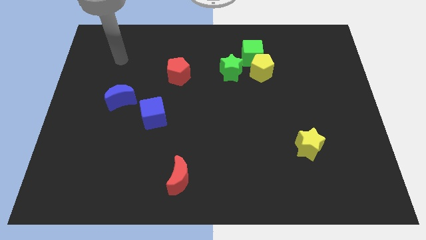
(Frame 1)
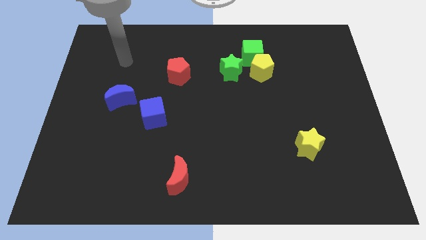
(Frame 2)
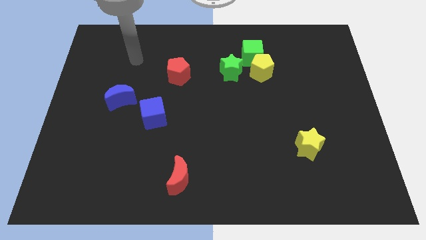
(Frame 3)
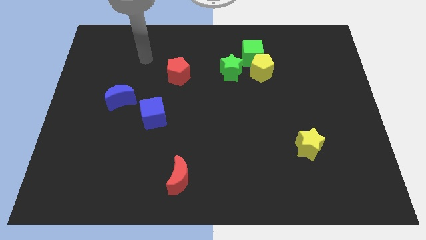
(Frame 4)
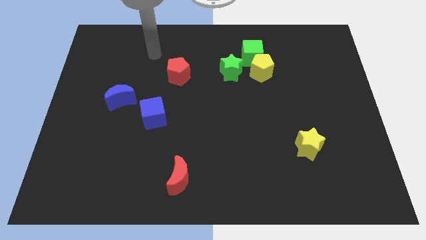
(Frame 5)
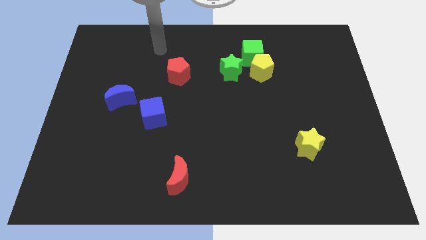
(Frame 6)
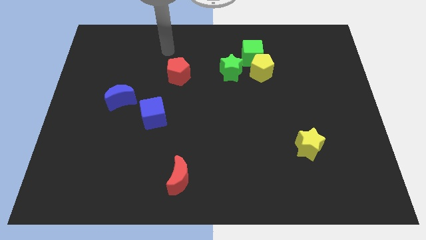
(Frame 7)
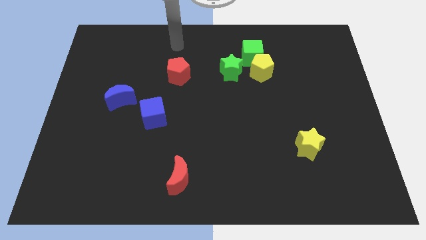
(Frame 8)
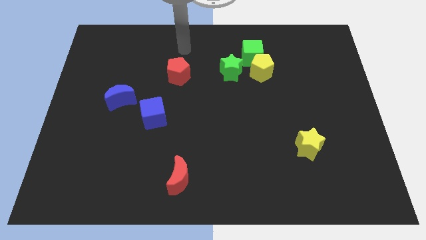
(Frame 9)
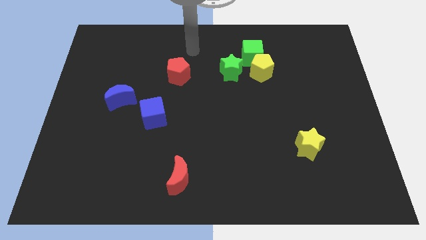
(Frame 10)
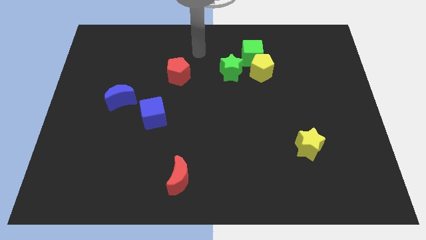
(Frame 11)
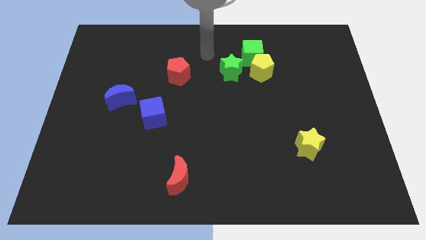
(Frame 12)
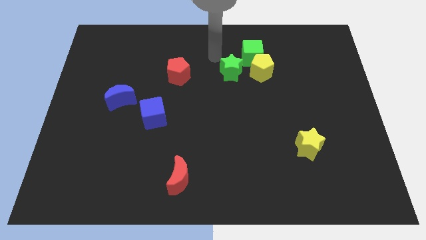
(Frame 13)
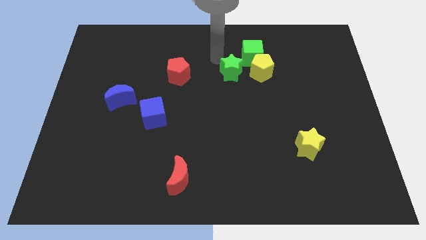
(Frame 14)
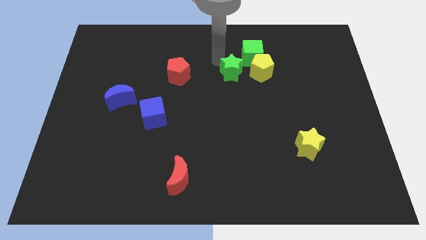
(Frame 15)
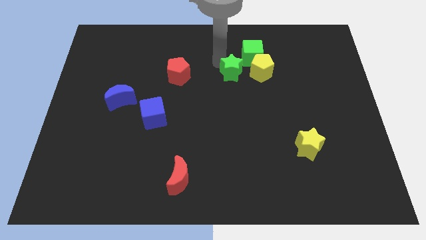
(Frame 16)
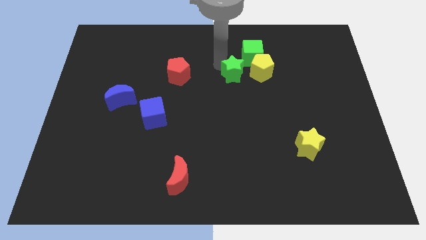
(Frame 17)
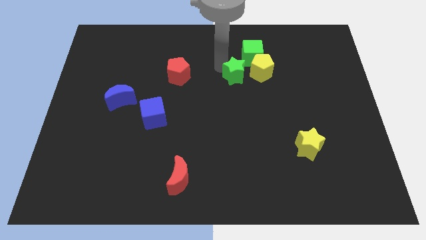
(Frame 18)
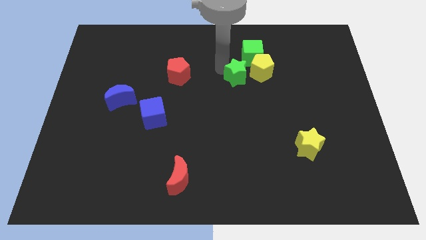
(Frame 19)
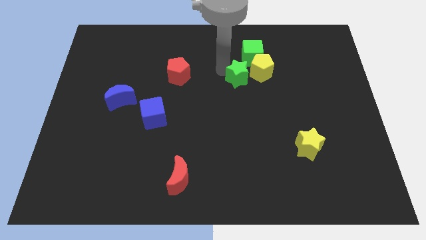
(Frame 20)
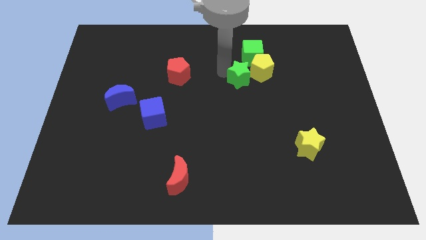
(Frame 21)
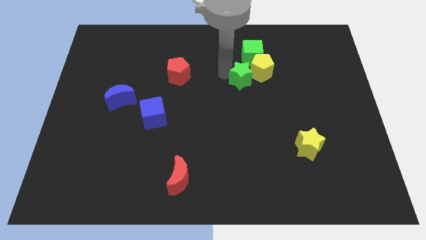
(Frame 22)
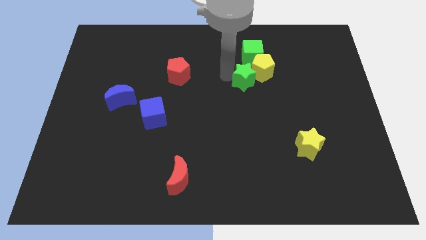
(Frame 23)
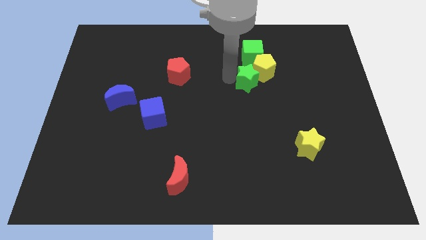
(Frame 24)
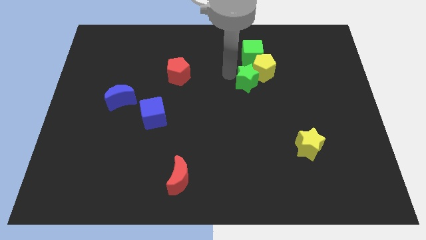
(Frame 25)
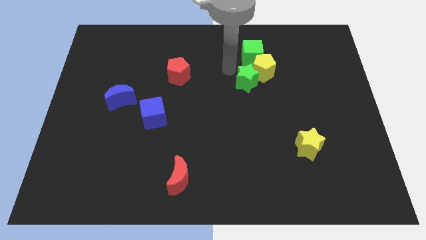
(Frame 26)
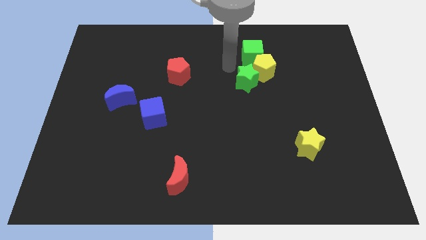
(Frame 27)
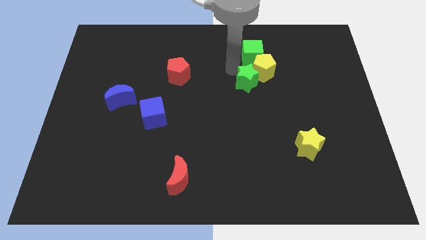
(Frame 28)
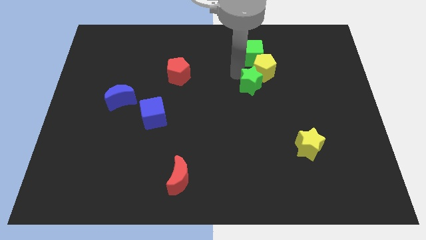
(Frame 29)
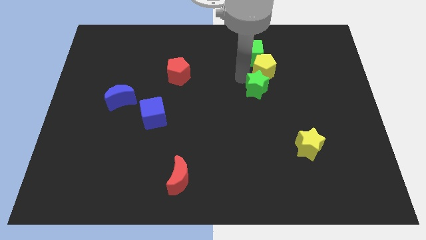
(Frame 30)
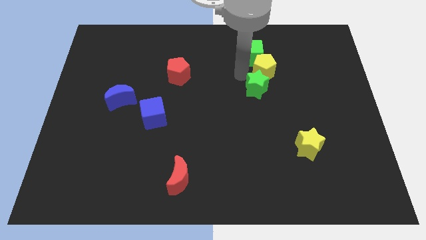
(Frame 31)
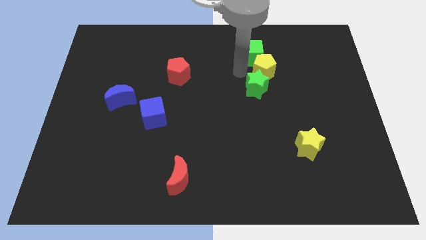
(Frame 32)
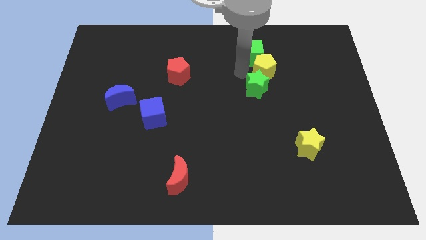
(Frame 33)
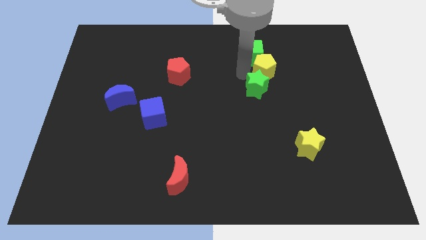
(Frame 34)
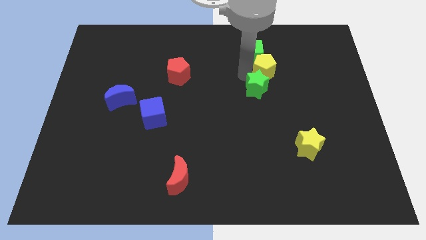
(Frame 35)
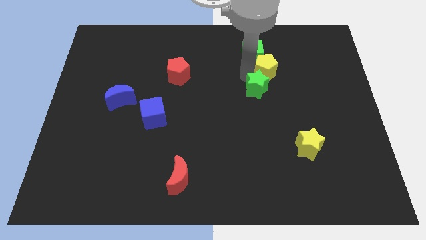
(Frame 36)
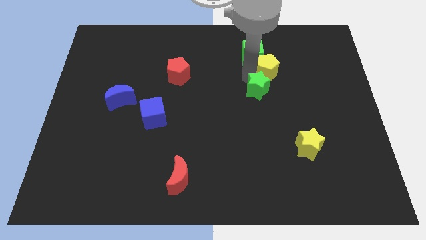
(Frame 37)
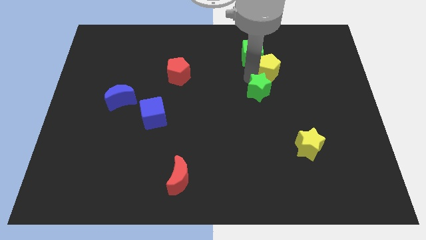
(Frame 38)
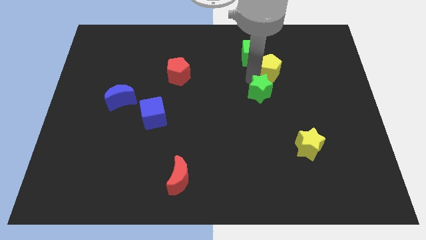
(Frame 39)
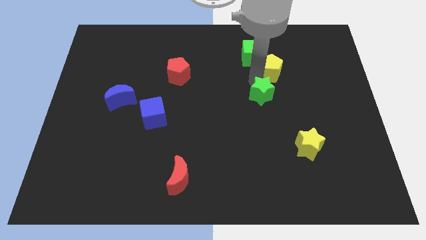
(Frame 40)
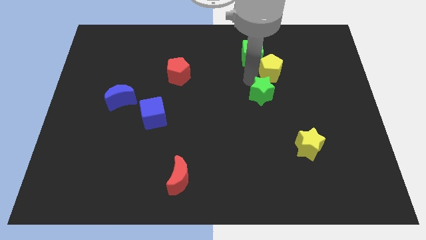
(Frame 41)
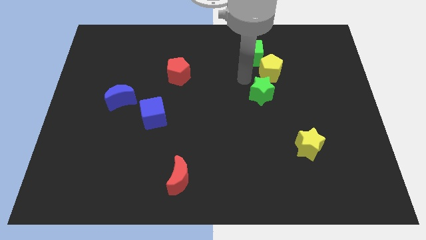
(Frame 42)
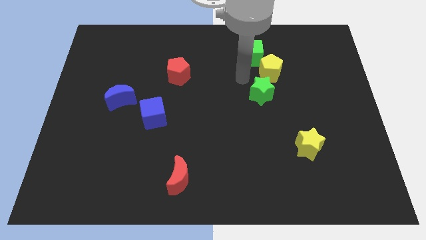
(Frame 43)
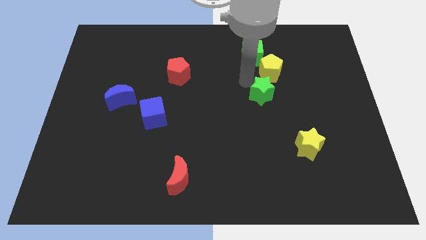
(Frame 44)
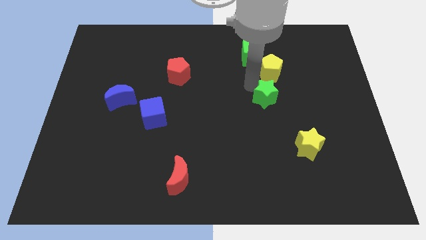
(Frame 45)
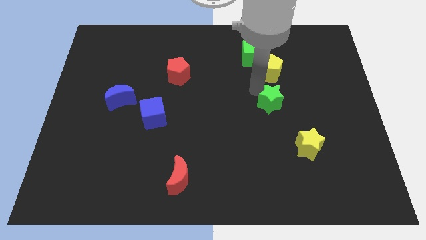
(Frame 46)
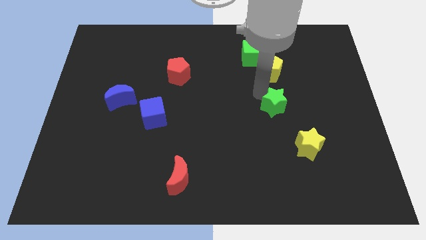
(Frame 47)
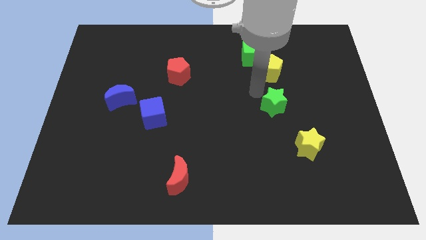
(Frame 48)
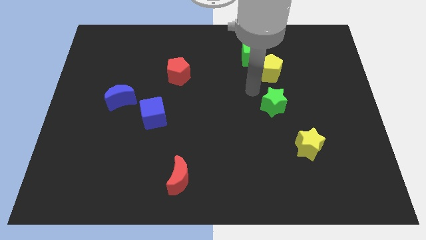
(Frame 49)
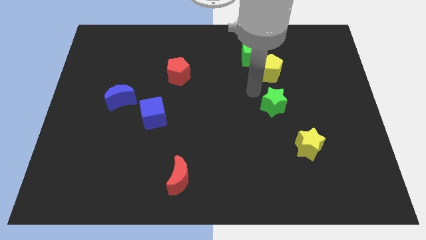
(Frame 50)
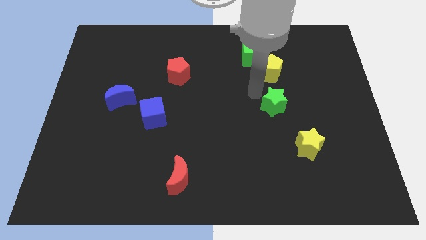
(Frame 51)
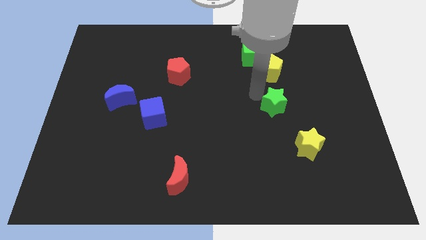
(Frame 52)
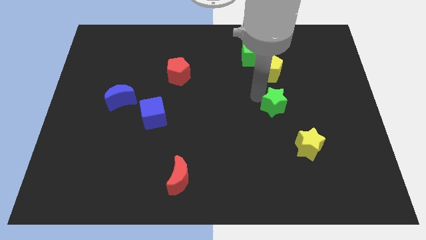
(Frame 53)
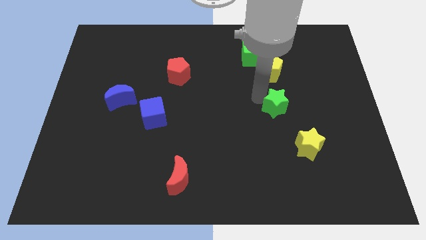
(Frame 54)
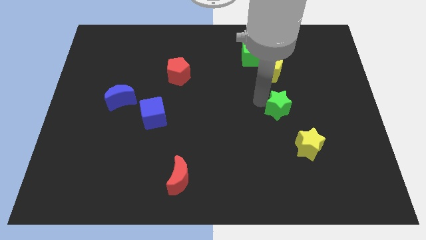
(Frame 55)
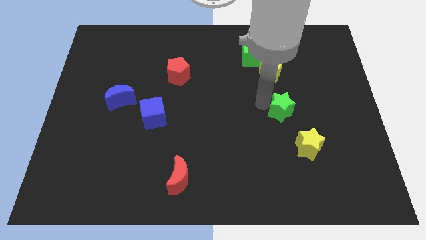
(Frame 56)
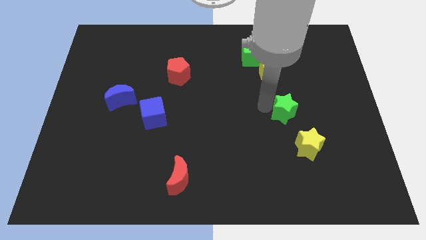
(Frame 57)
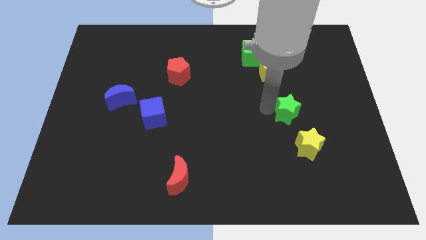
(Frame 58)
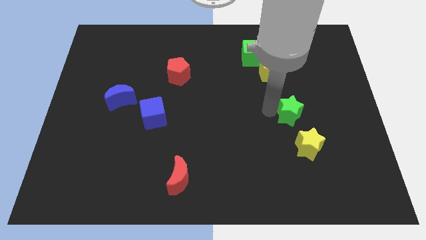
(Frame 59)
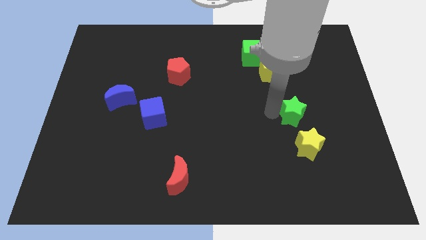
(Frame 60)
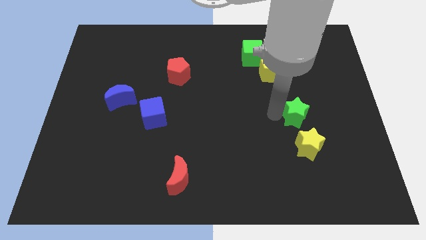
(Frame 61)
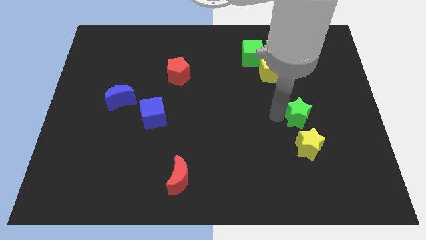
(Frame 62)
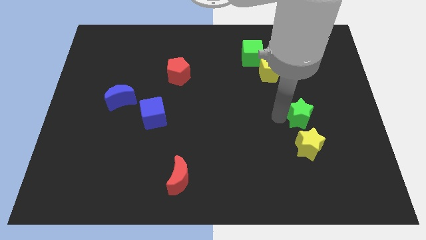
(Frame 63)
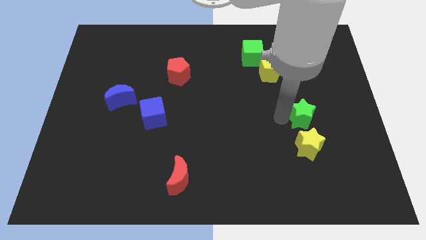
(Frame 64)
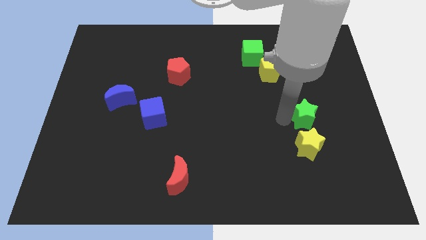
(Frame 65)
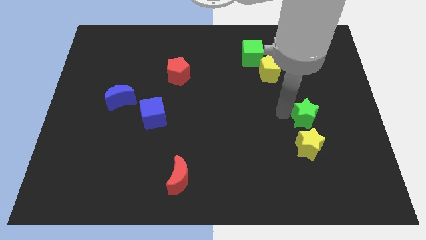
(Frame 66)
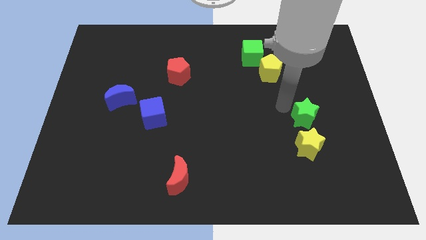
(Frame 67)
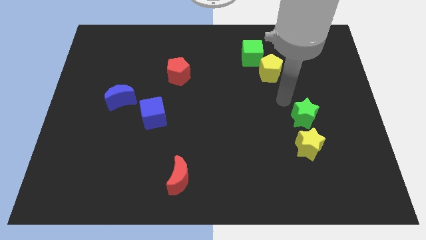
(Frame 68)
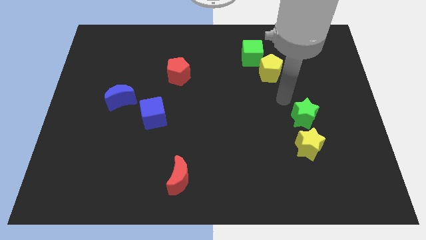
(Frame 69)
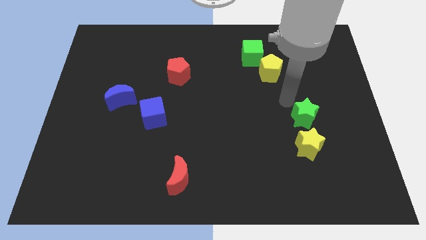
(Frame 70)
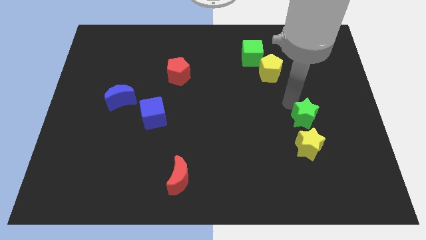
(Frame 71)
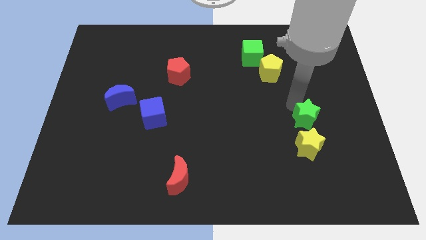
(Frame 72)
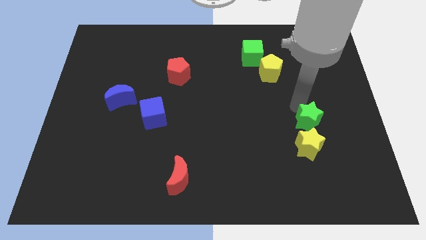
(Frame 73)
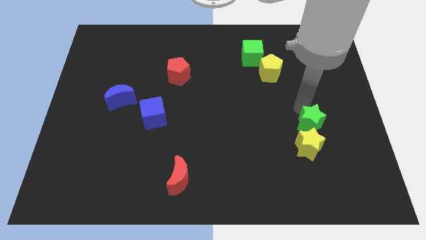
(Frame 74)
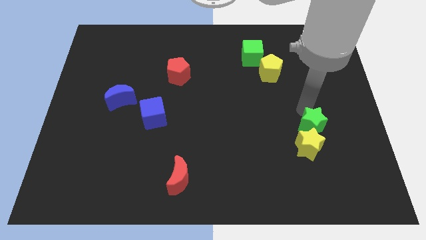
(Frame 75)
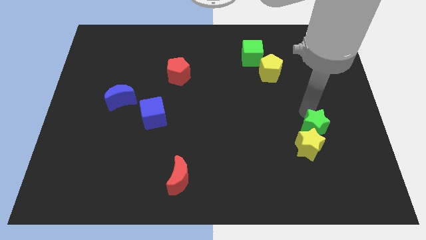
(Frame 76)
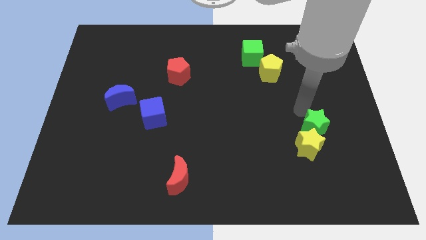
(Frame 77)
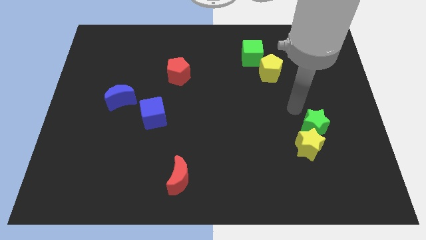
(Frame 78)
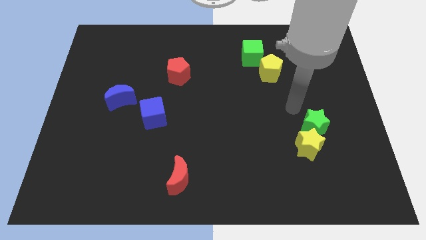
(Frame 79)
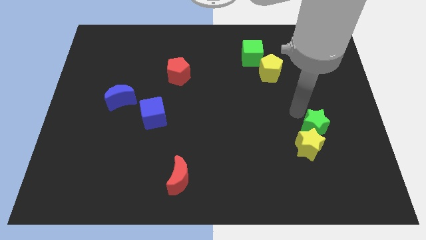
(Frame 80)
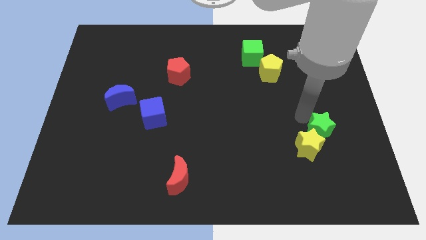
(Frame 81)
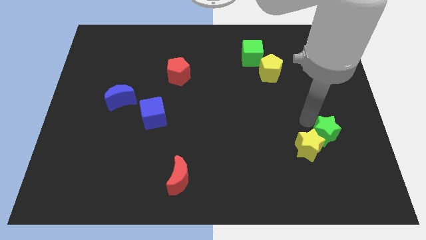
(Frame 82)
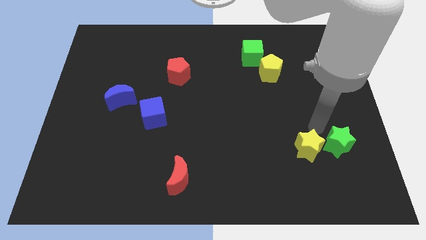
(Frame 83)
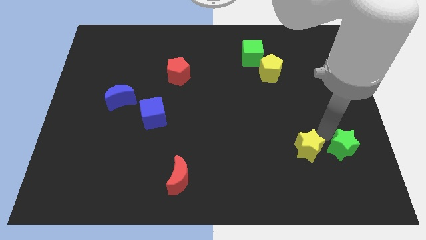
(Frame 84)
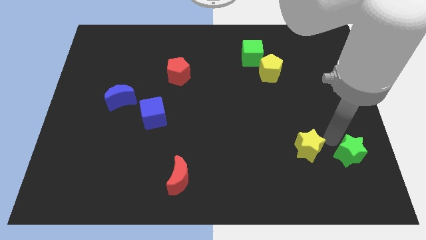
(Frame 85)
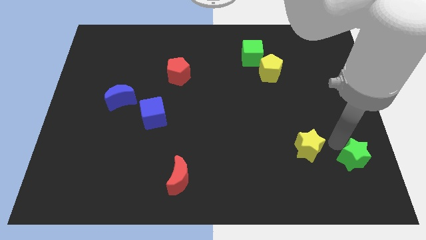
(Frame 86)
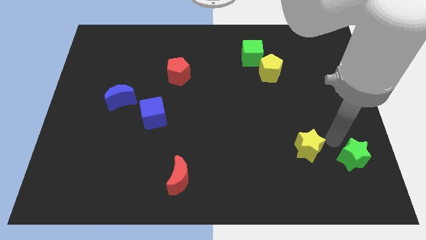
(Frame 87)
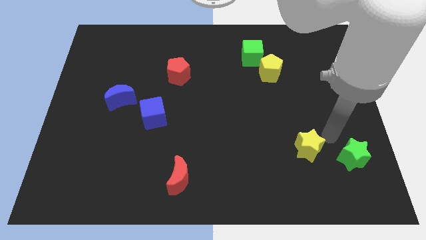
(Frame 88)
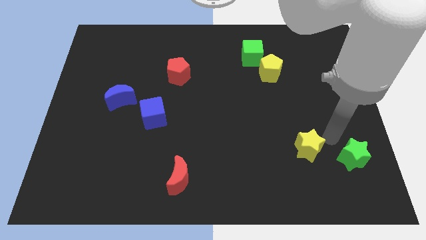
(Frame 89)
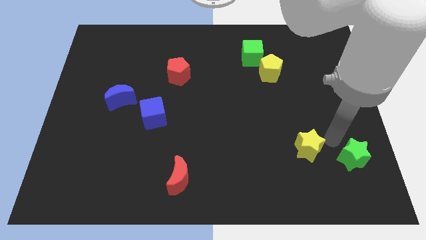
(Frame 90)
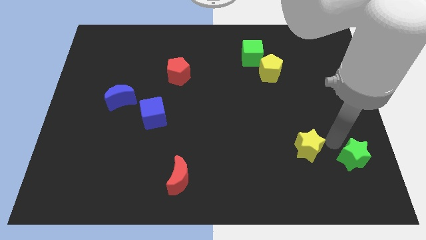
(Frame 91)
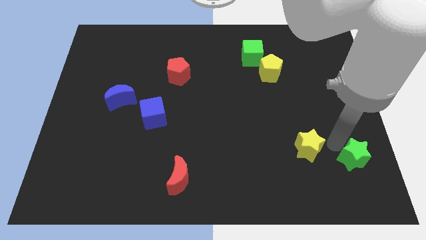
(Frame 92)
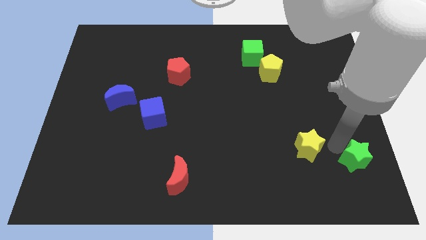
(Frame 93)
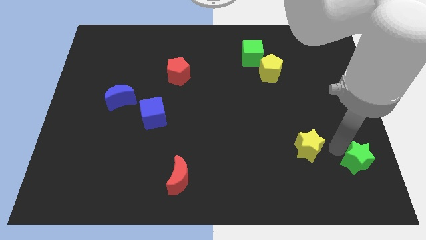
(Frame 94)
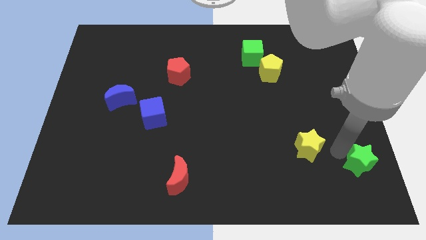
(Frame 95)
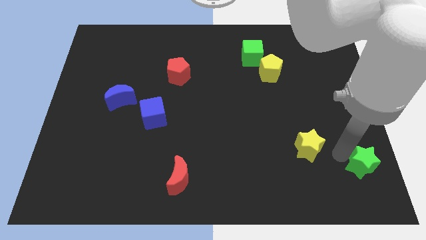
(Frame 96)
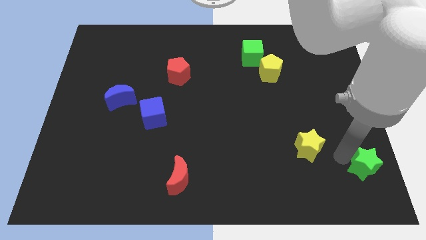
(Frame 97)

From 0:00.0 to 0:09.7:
put the green star to the lower right corner
